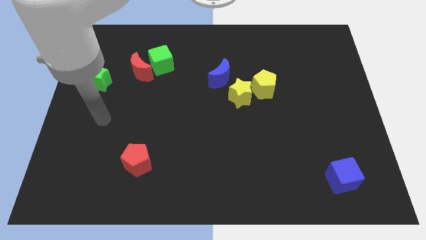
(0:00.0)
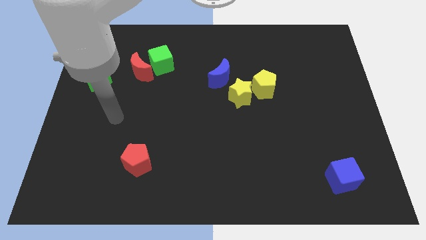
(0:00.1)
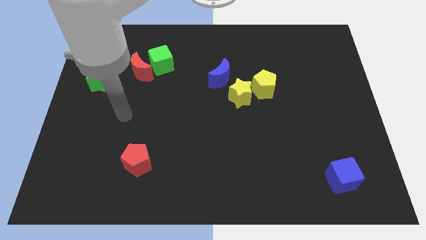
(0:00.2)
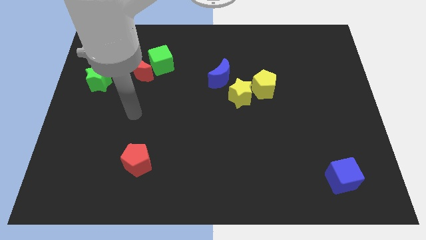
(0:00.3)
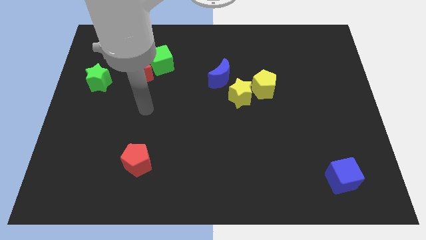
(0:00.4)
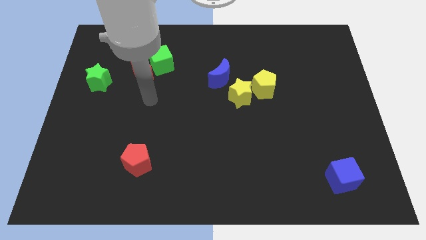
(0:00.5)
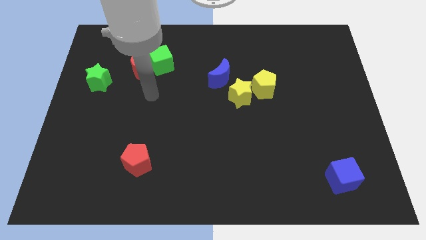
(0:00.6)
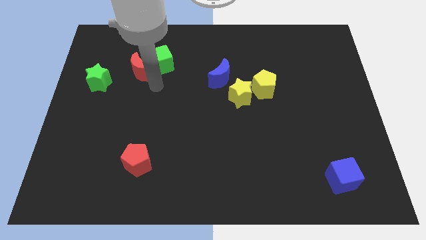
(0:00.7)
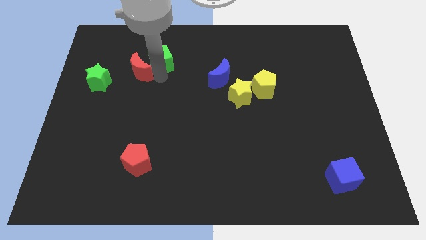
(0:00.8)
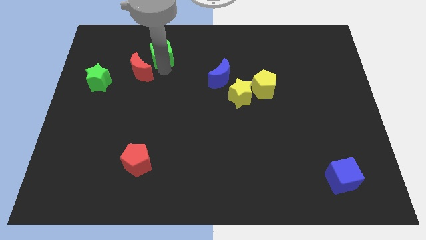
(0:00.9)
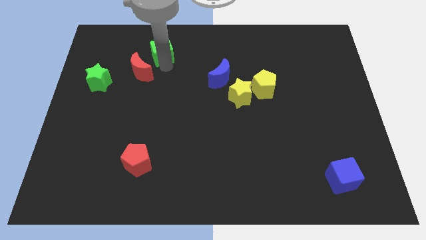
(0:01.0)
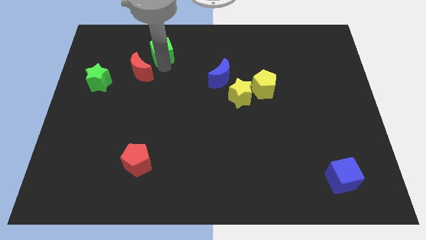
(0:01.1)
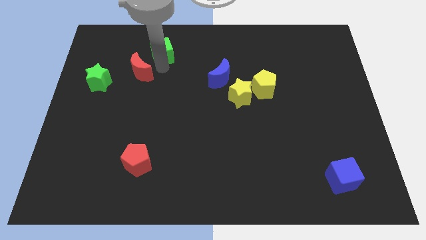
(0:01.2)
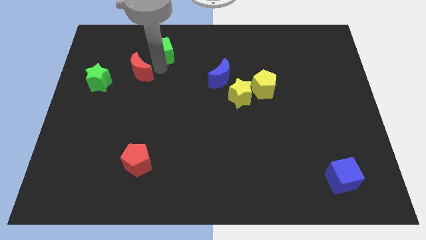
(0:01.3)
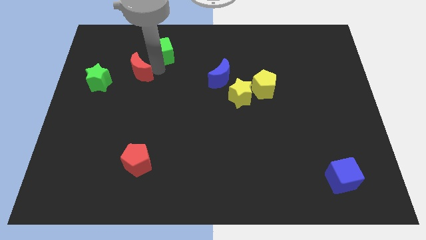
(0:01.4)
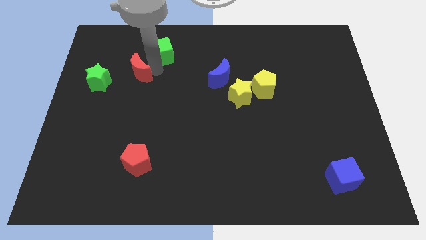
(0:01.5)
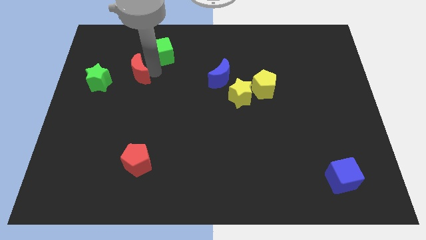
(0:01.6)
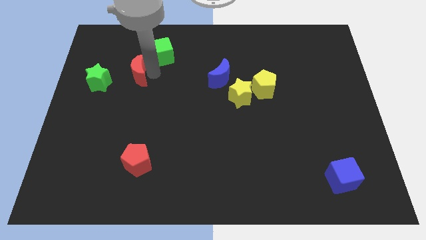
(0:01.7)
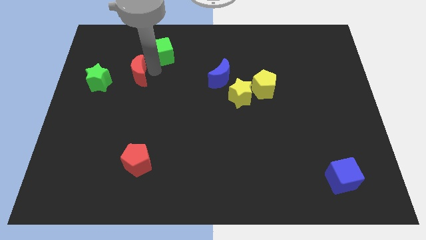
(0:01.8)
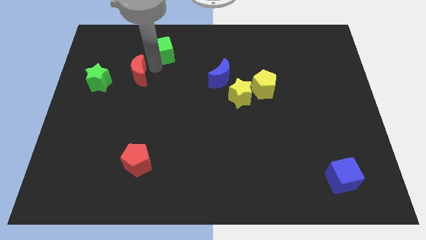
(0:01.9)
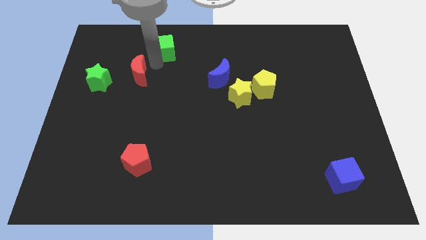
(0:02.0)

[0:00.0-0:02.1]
separate the red moon from the green cube

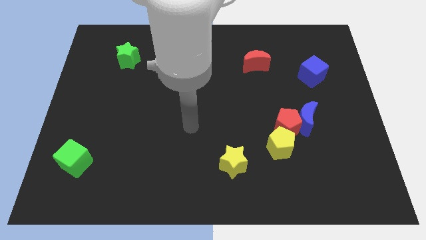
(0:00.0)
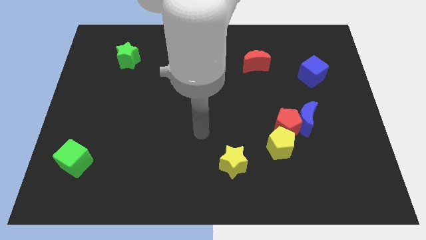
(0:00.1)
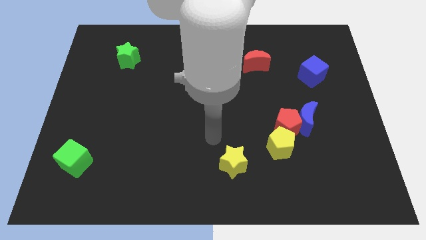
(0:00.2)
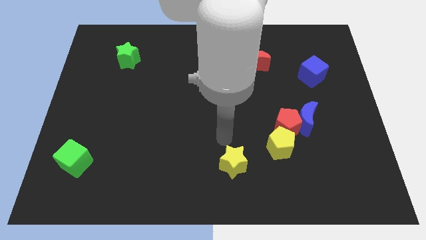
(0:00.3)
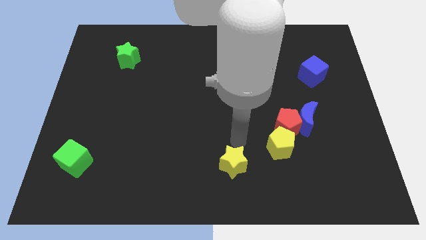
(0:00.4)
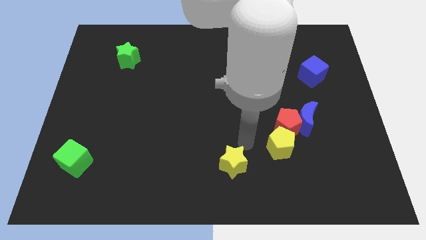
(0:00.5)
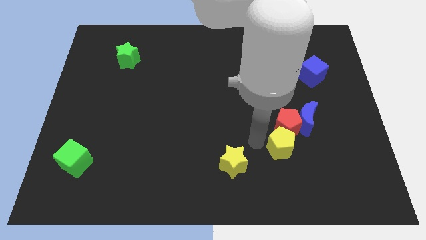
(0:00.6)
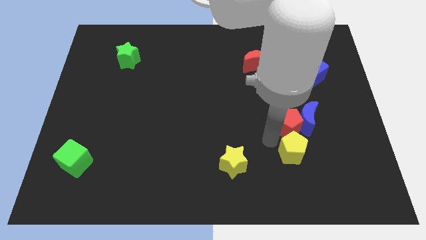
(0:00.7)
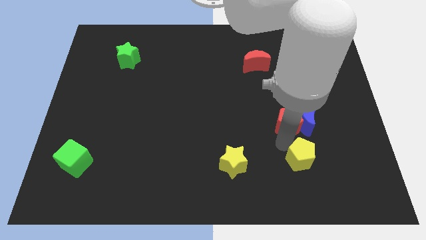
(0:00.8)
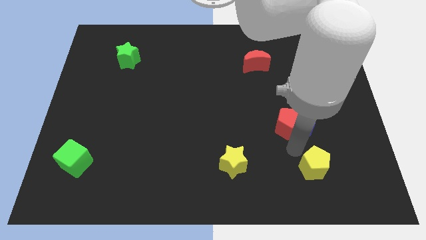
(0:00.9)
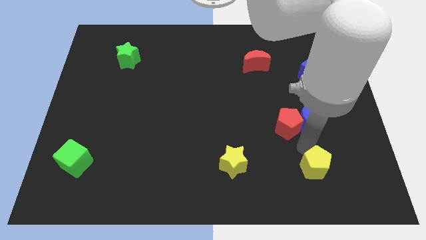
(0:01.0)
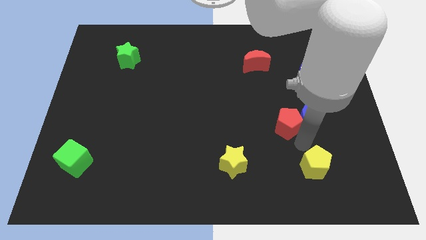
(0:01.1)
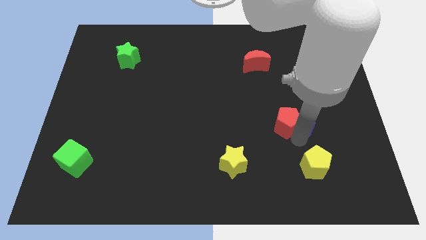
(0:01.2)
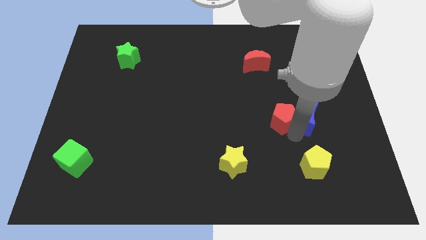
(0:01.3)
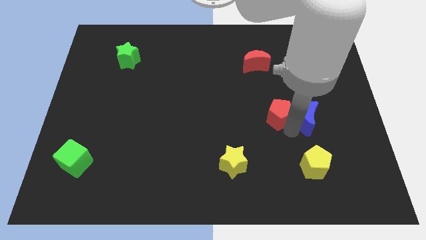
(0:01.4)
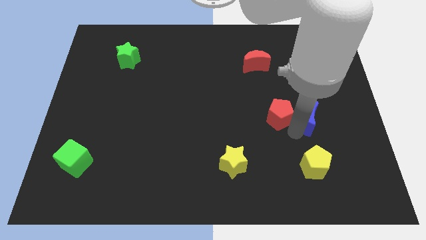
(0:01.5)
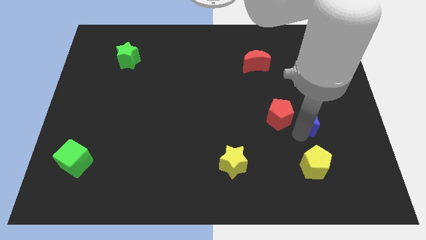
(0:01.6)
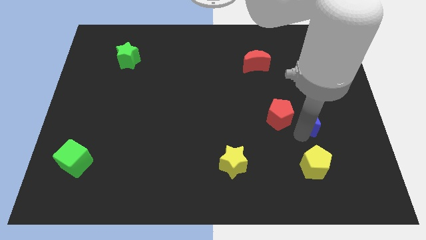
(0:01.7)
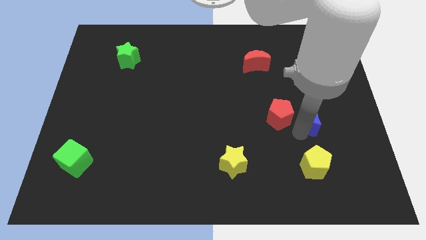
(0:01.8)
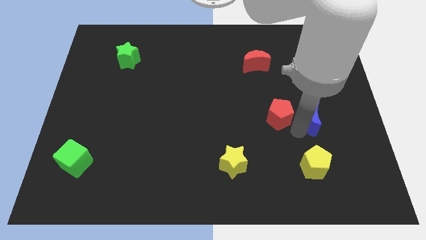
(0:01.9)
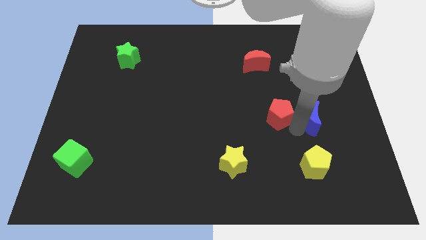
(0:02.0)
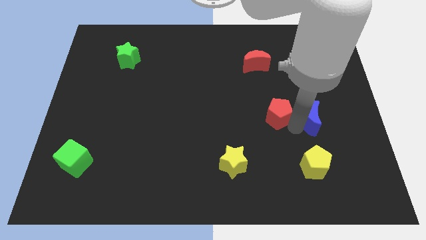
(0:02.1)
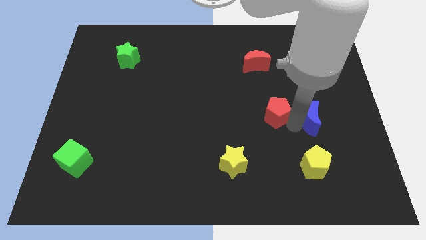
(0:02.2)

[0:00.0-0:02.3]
move the red pentagon away from the blue moon and yellow pentagon

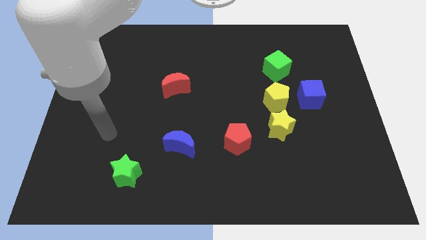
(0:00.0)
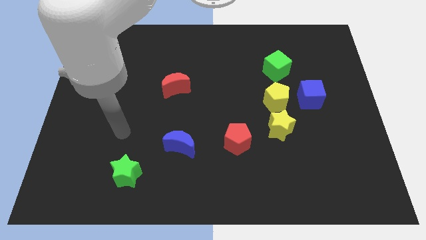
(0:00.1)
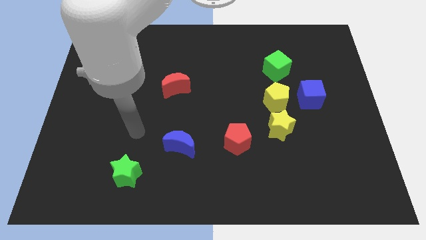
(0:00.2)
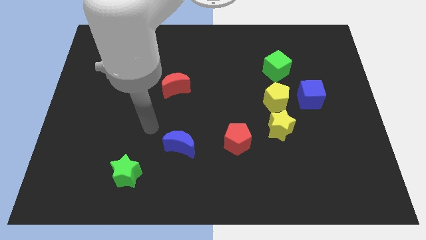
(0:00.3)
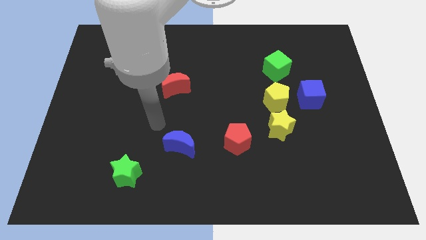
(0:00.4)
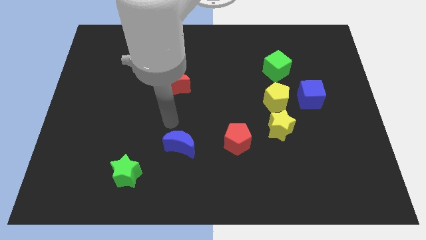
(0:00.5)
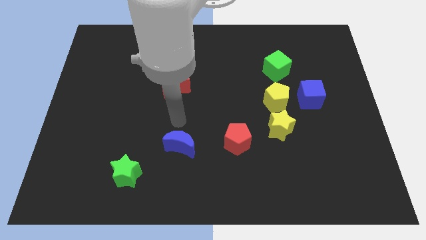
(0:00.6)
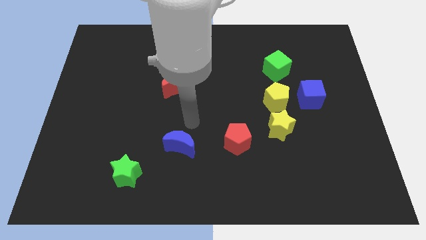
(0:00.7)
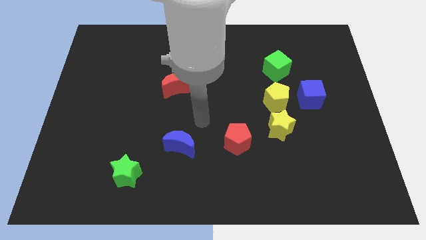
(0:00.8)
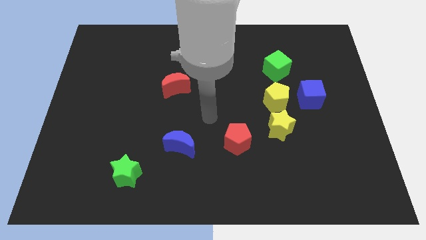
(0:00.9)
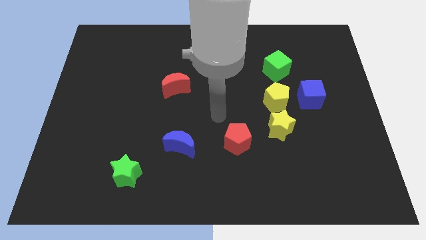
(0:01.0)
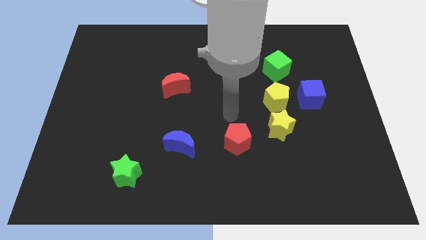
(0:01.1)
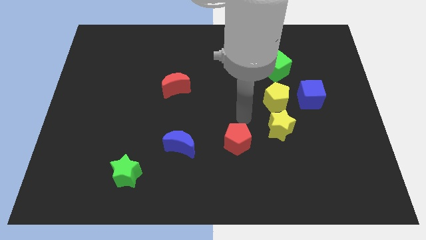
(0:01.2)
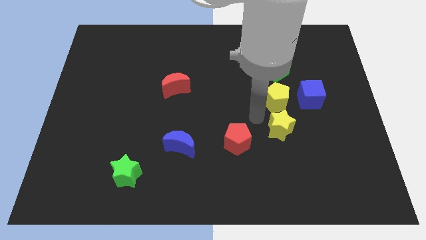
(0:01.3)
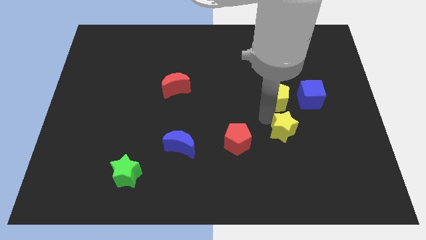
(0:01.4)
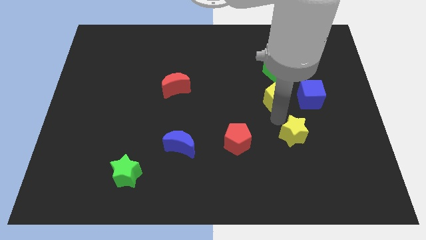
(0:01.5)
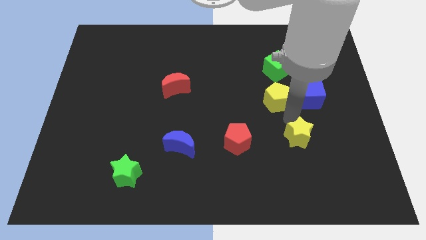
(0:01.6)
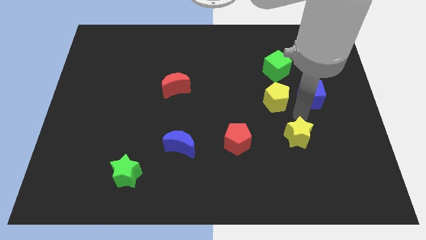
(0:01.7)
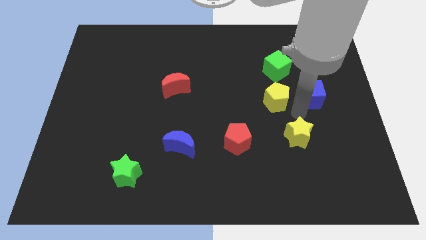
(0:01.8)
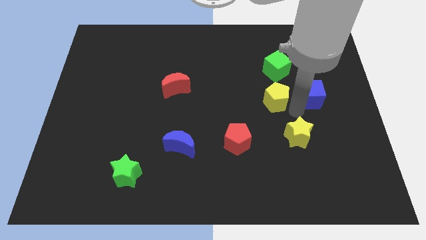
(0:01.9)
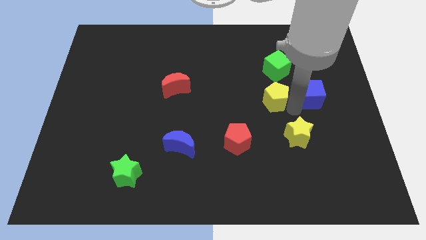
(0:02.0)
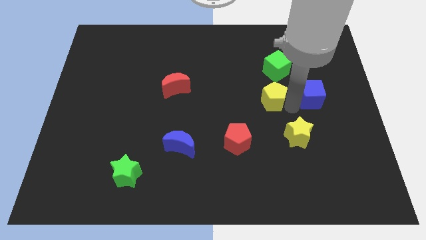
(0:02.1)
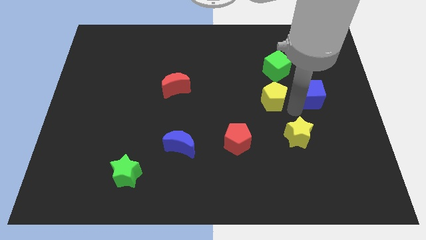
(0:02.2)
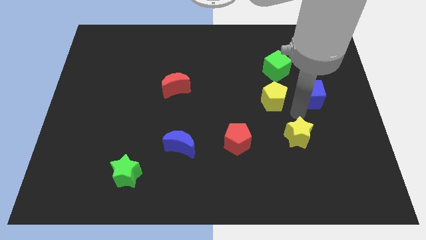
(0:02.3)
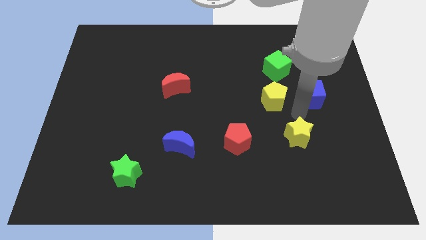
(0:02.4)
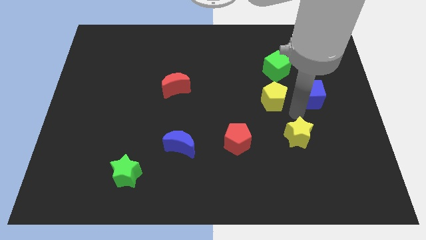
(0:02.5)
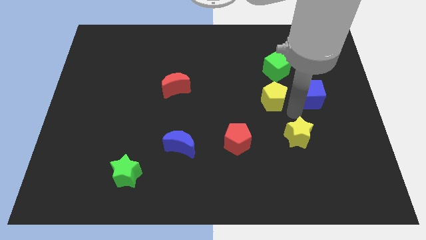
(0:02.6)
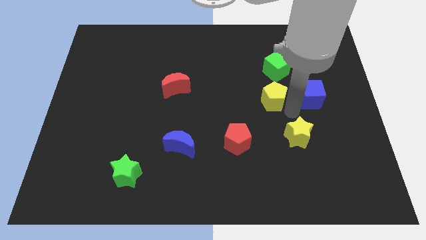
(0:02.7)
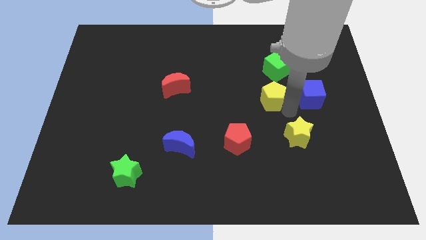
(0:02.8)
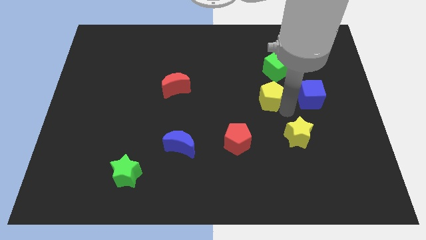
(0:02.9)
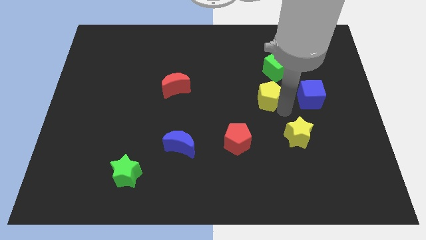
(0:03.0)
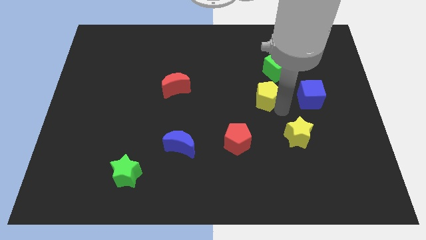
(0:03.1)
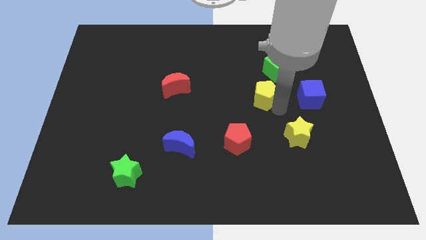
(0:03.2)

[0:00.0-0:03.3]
separate the yellow pentagon from the yellow star and blue cube

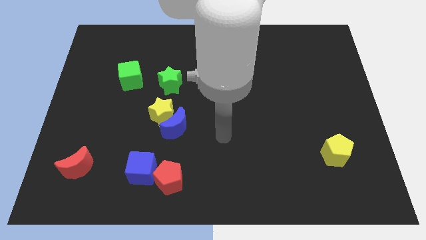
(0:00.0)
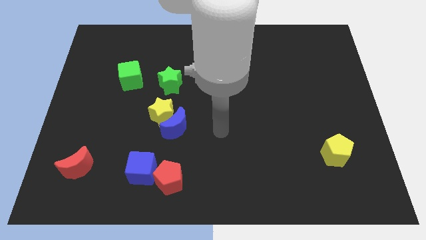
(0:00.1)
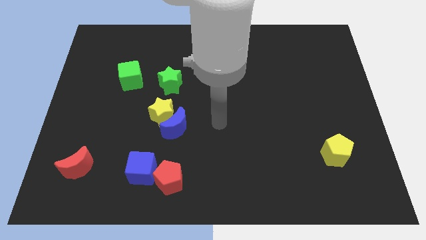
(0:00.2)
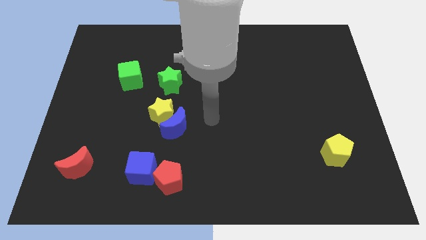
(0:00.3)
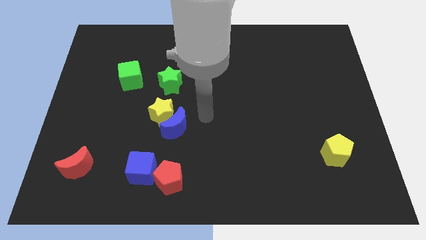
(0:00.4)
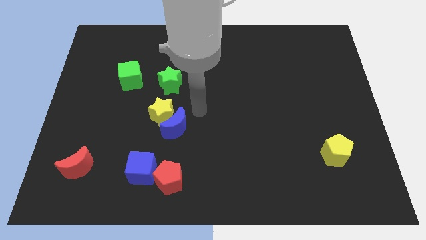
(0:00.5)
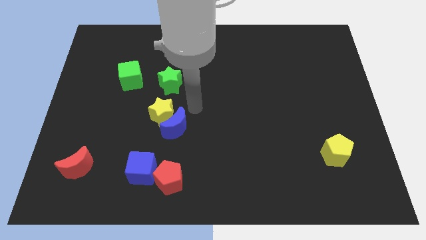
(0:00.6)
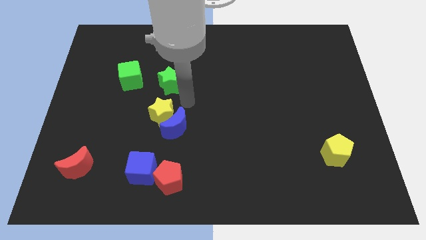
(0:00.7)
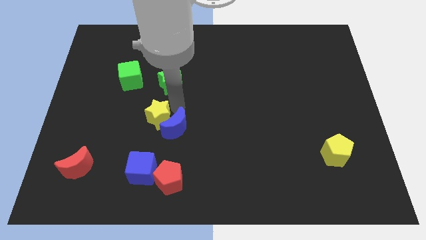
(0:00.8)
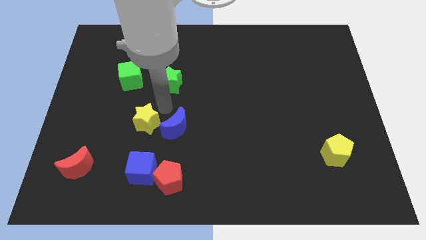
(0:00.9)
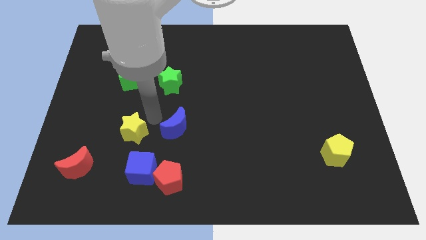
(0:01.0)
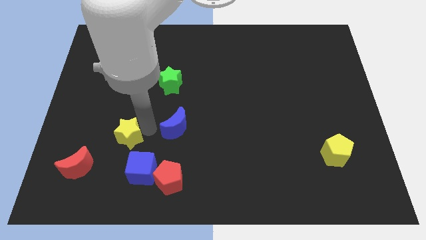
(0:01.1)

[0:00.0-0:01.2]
separate the blue moon from the yellow star

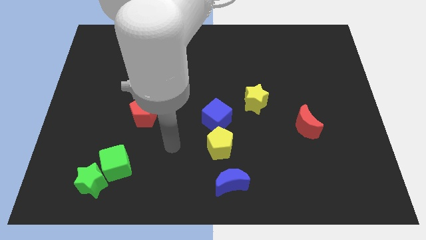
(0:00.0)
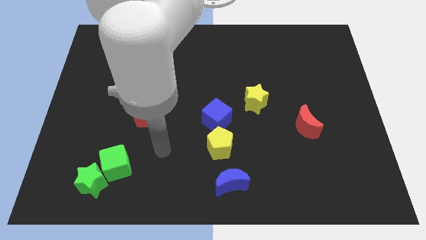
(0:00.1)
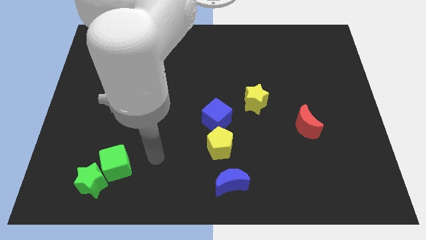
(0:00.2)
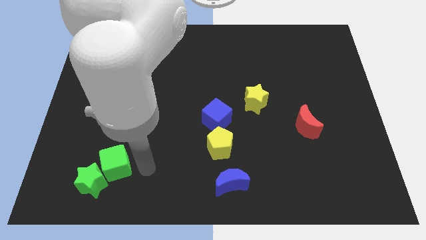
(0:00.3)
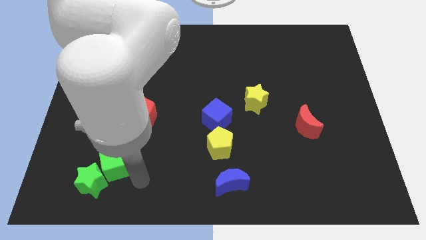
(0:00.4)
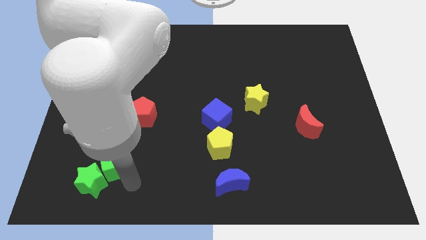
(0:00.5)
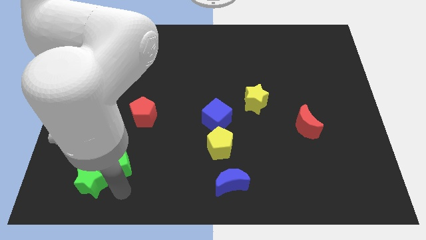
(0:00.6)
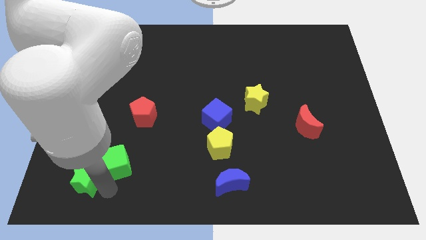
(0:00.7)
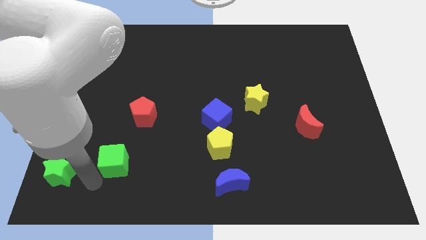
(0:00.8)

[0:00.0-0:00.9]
pull the green cube apart from the green star
